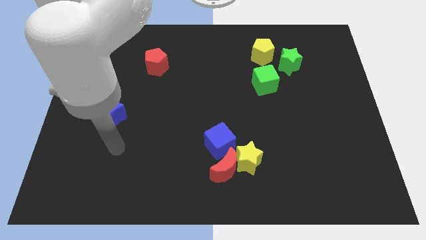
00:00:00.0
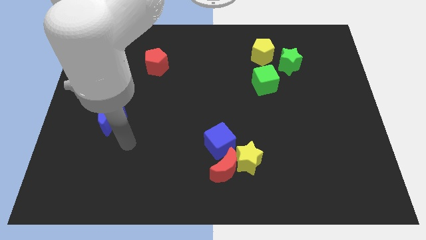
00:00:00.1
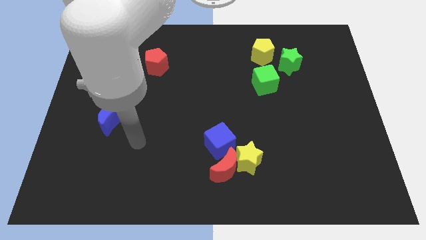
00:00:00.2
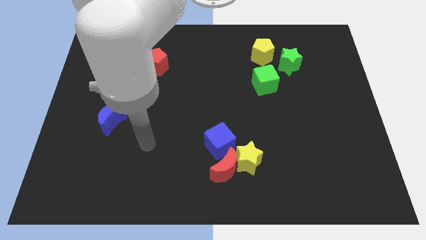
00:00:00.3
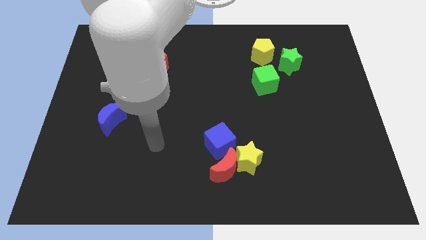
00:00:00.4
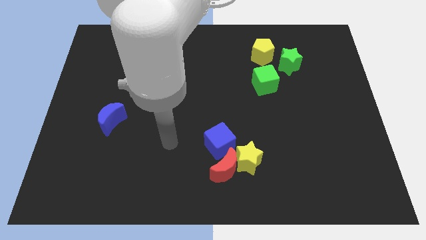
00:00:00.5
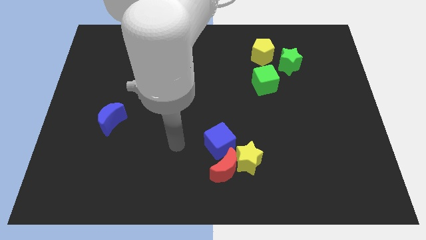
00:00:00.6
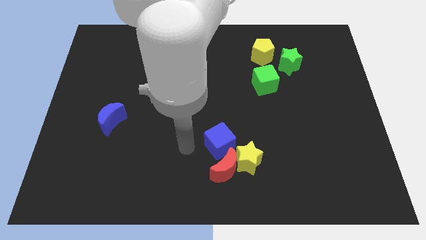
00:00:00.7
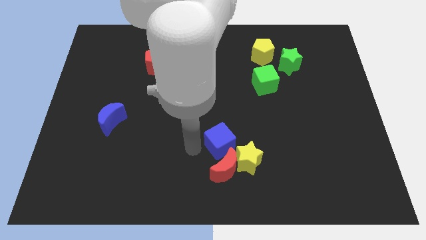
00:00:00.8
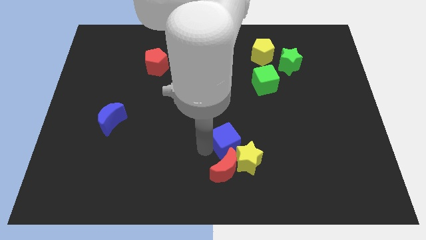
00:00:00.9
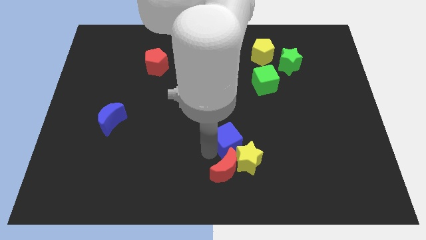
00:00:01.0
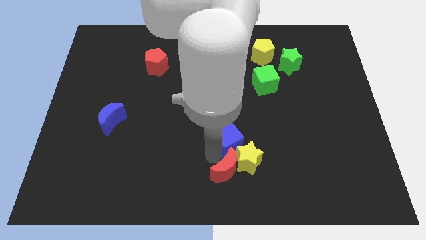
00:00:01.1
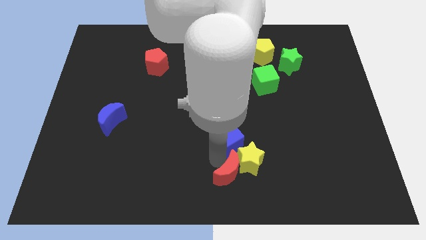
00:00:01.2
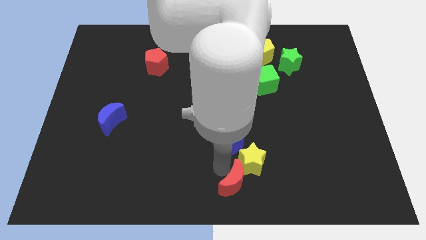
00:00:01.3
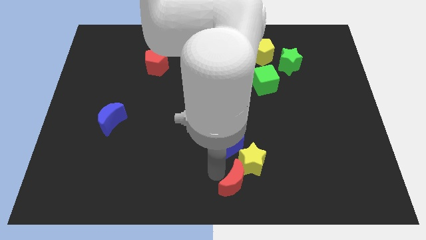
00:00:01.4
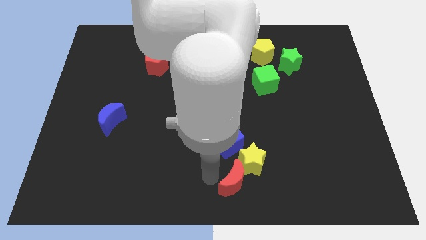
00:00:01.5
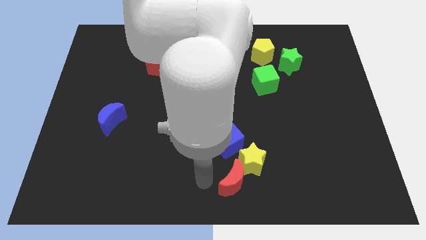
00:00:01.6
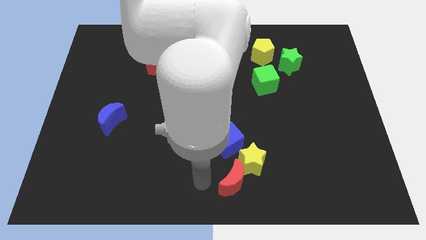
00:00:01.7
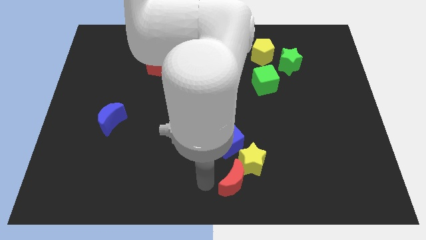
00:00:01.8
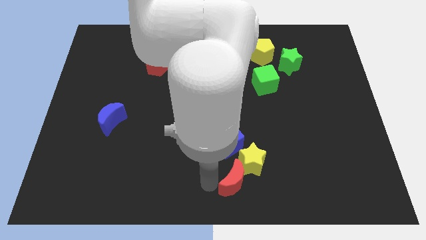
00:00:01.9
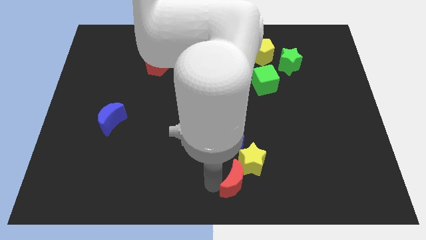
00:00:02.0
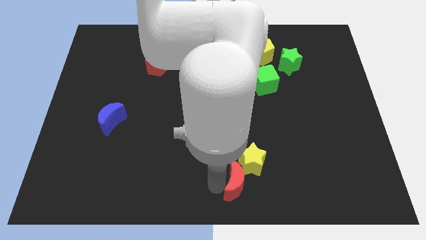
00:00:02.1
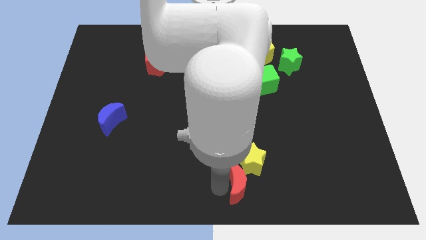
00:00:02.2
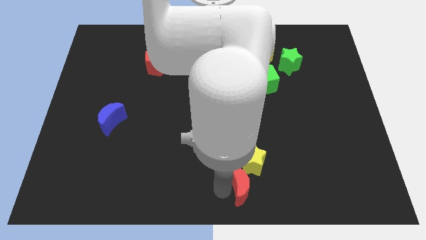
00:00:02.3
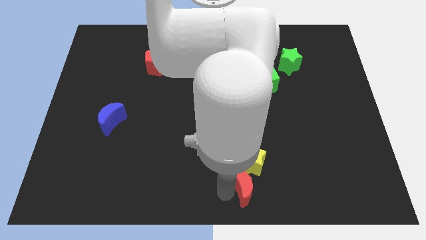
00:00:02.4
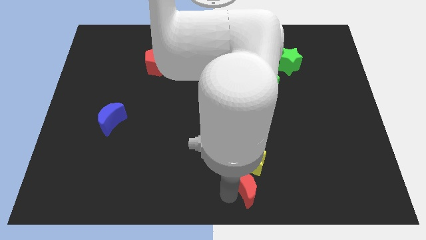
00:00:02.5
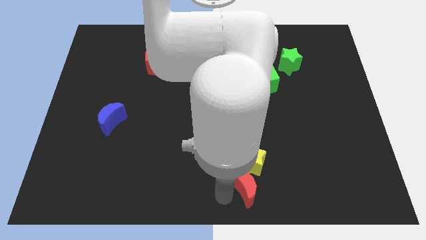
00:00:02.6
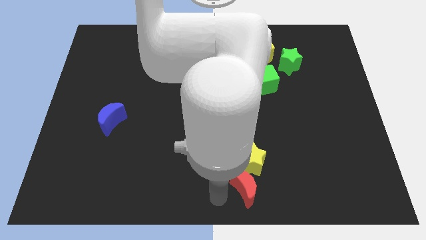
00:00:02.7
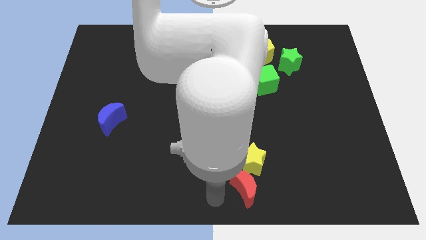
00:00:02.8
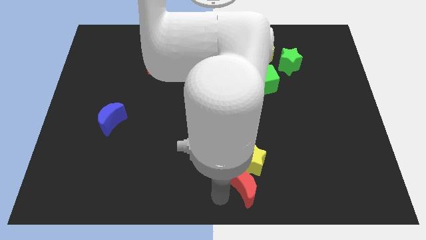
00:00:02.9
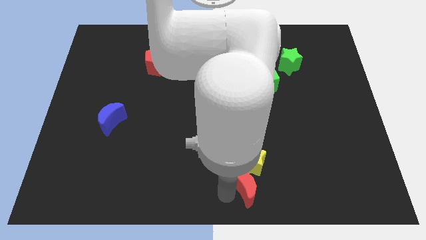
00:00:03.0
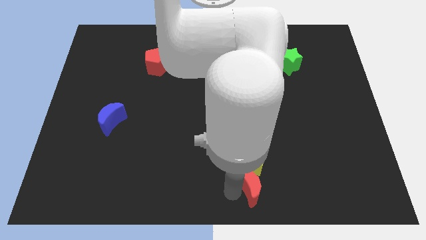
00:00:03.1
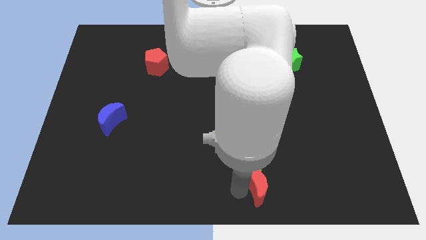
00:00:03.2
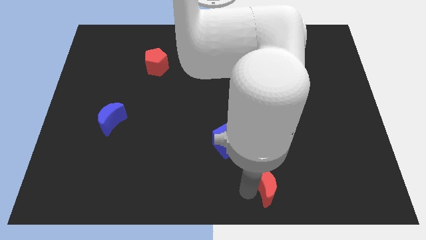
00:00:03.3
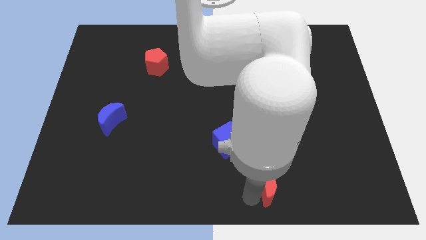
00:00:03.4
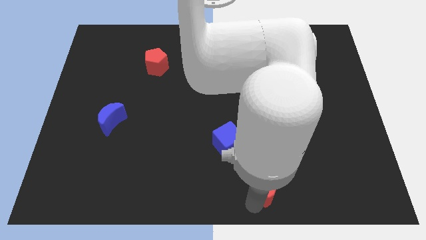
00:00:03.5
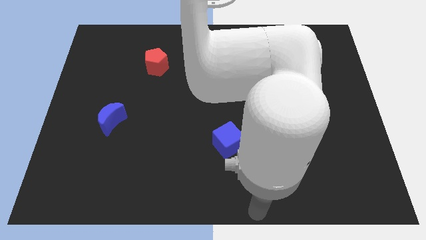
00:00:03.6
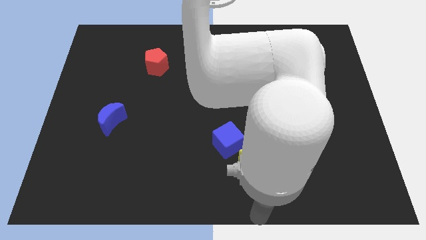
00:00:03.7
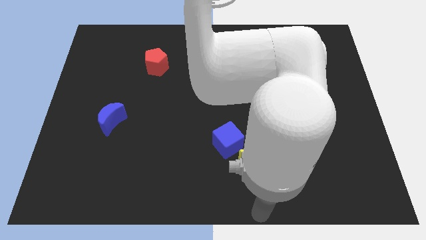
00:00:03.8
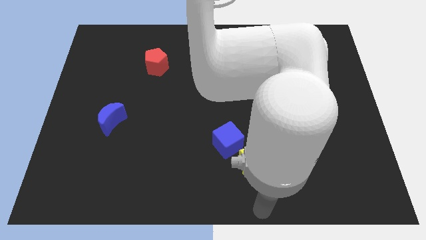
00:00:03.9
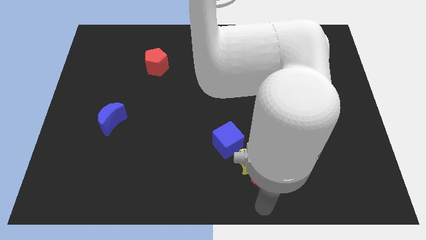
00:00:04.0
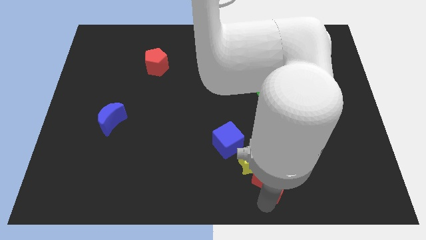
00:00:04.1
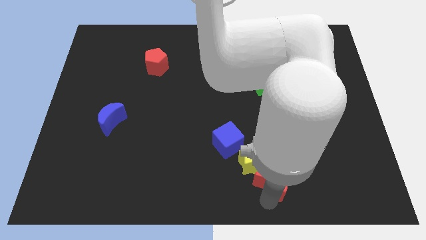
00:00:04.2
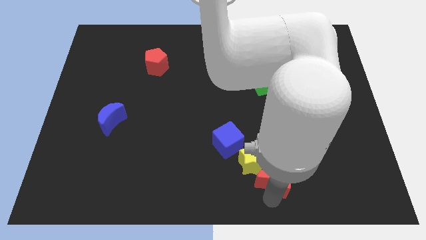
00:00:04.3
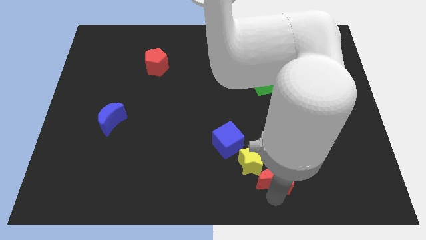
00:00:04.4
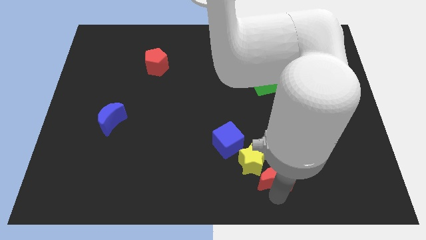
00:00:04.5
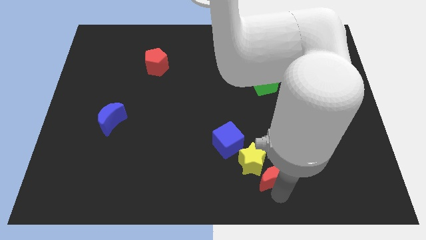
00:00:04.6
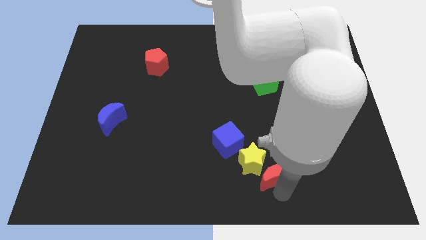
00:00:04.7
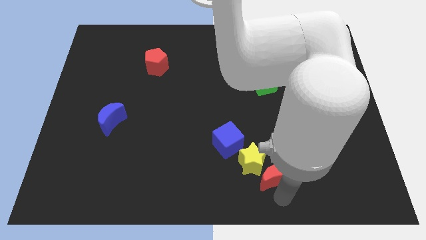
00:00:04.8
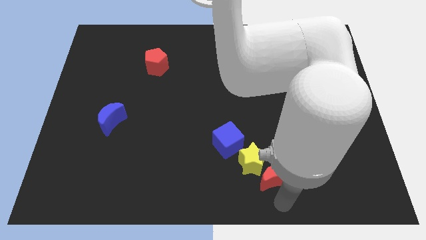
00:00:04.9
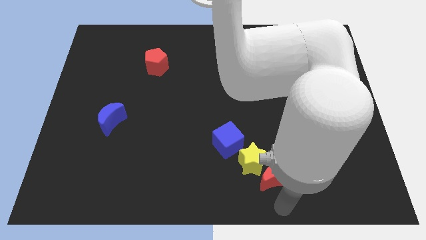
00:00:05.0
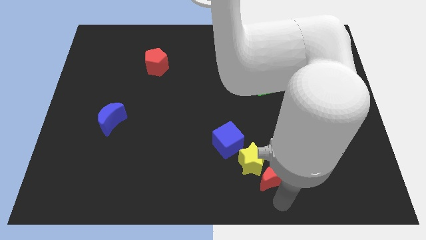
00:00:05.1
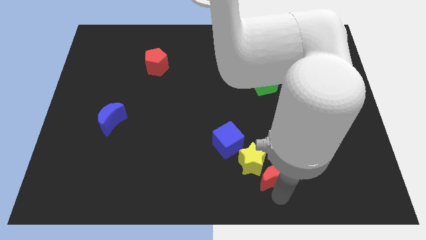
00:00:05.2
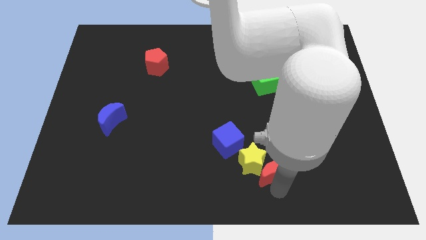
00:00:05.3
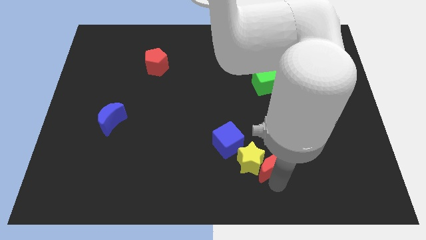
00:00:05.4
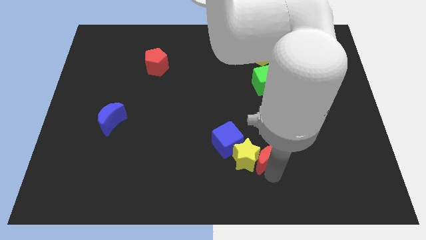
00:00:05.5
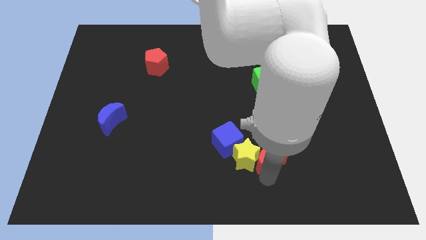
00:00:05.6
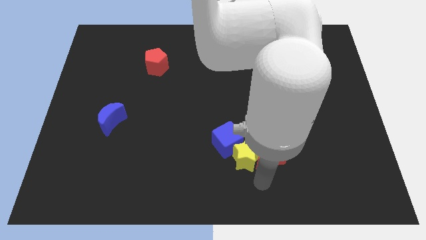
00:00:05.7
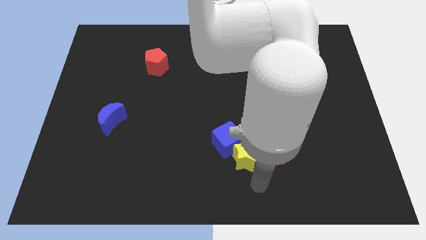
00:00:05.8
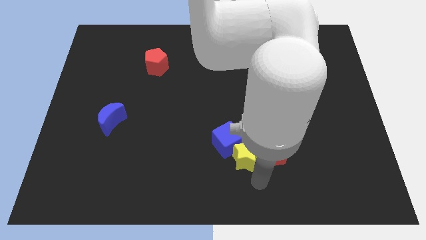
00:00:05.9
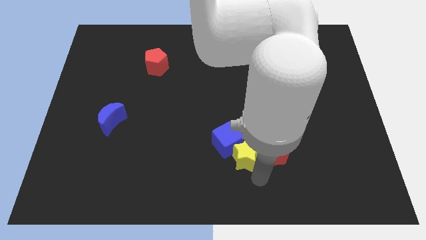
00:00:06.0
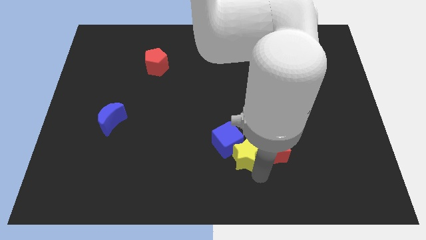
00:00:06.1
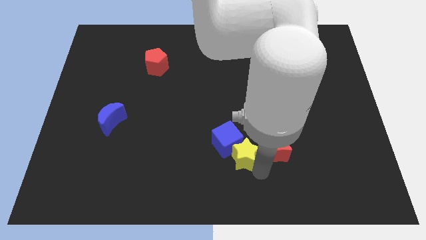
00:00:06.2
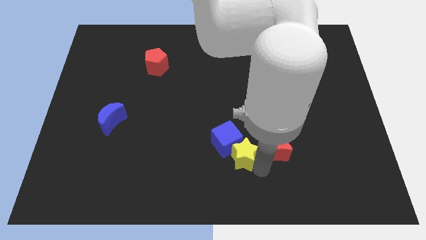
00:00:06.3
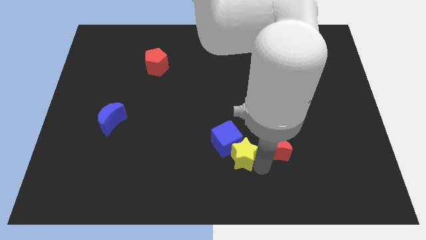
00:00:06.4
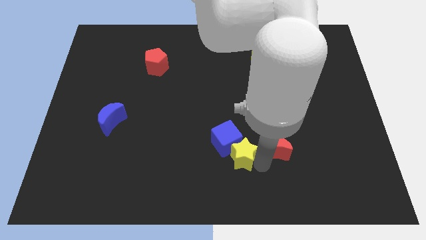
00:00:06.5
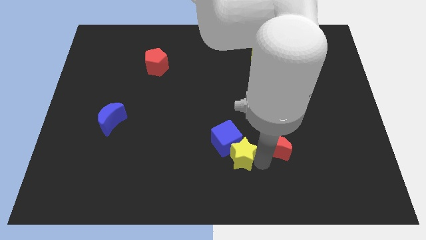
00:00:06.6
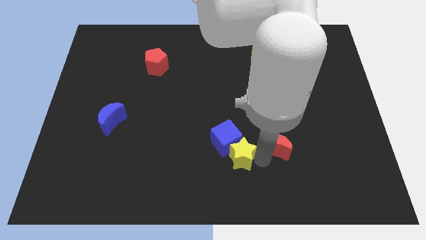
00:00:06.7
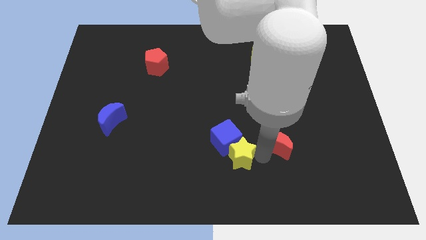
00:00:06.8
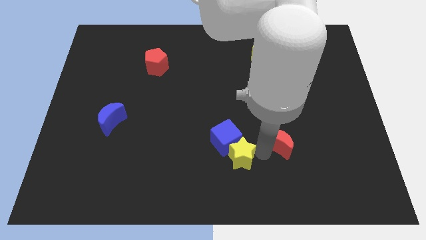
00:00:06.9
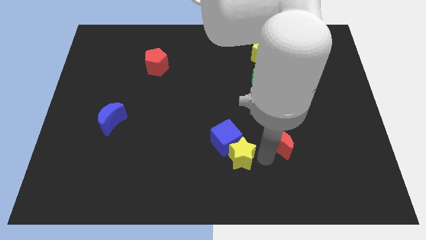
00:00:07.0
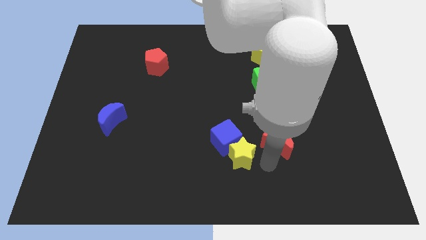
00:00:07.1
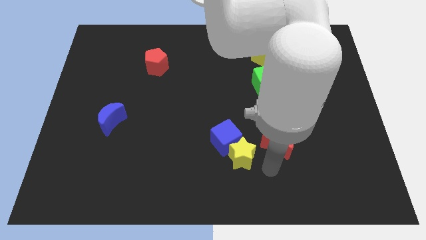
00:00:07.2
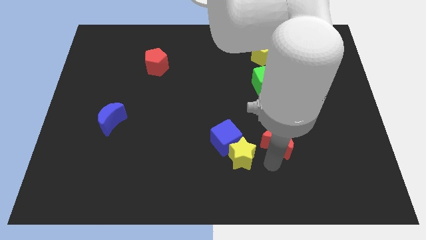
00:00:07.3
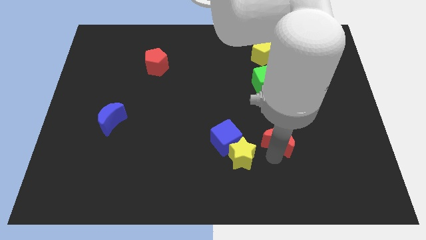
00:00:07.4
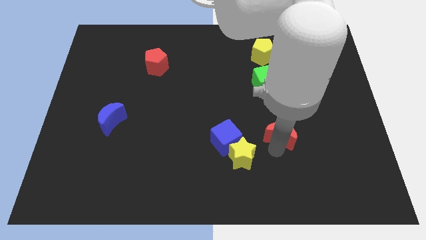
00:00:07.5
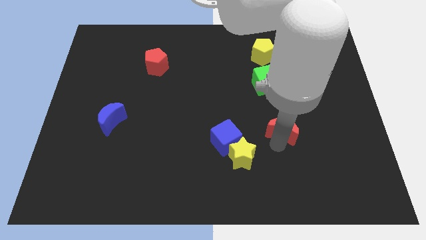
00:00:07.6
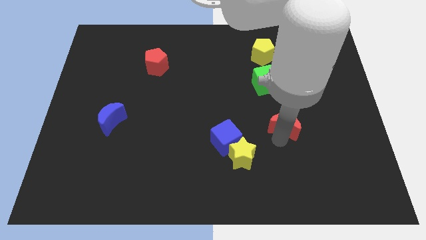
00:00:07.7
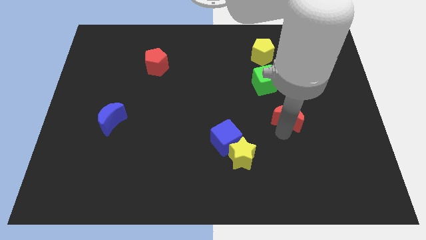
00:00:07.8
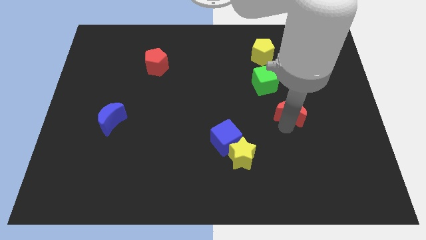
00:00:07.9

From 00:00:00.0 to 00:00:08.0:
move the red moon diagonally down and to the right of the green cube

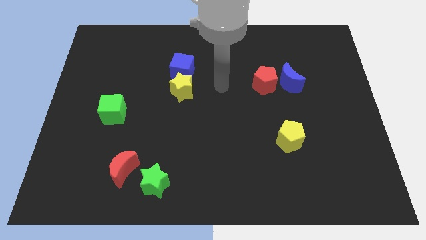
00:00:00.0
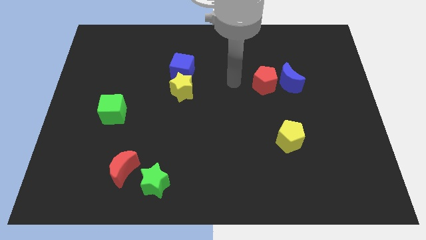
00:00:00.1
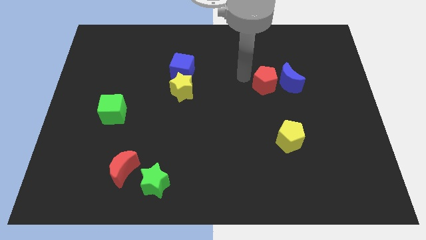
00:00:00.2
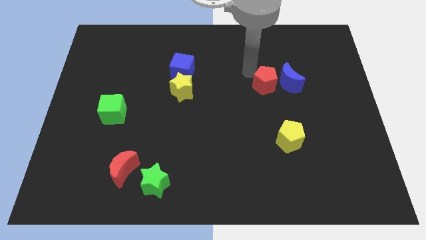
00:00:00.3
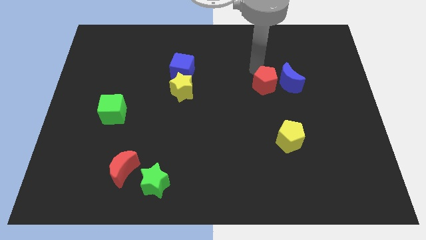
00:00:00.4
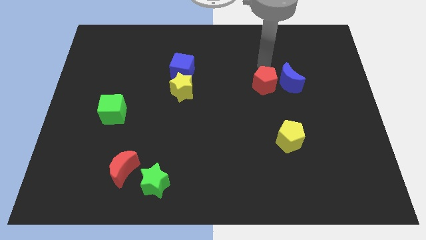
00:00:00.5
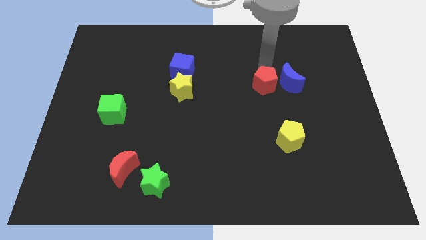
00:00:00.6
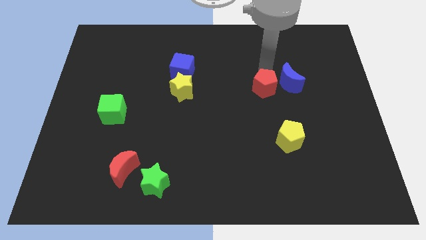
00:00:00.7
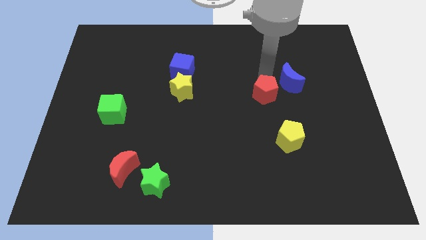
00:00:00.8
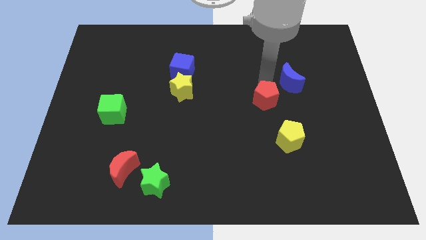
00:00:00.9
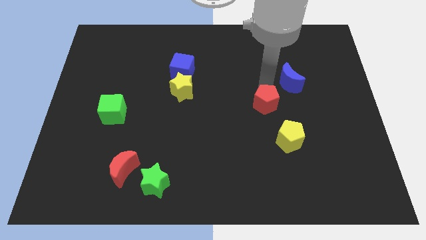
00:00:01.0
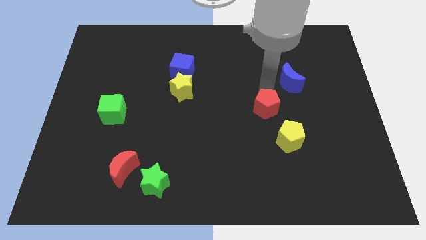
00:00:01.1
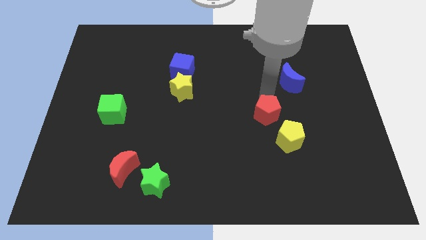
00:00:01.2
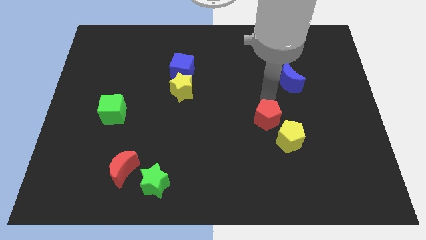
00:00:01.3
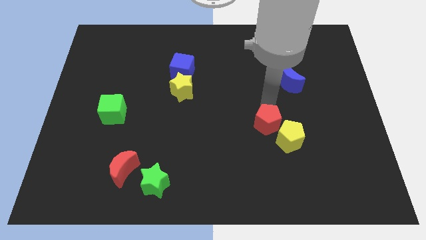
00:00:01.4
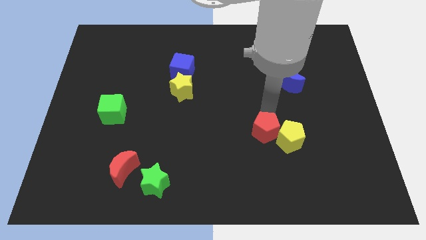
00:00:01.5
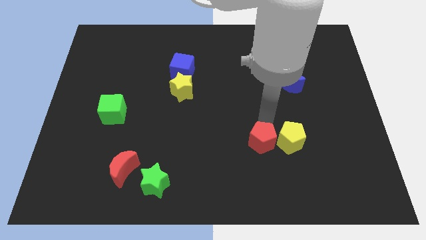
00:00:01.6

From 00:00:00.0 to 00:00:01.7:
push the red pentagon to the bottom left of the yellow pentagon
